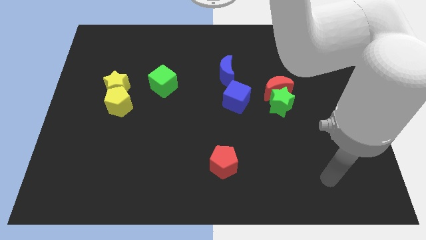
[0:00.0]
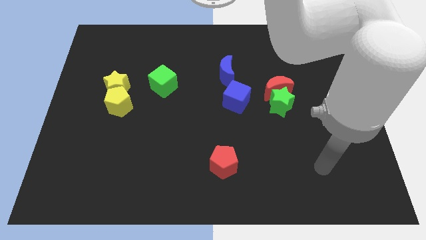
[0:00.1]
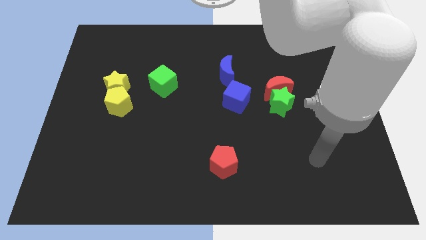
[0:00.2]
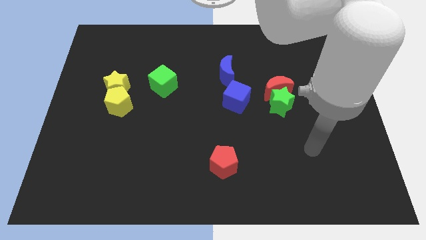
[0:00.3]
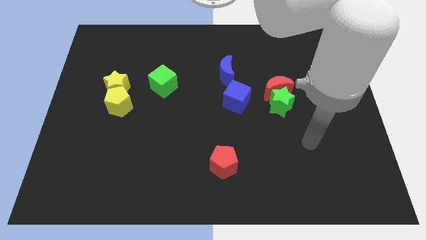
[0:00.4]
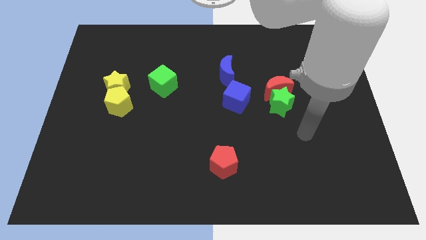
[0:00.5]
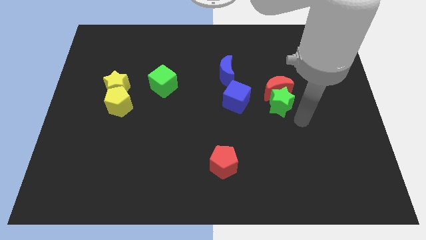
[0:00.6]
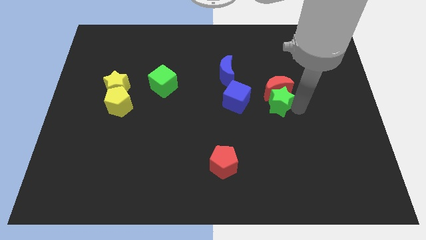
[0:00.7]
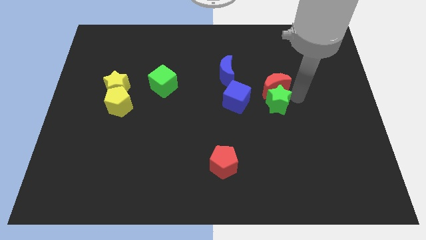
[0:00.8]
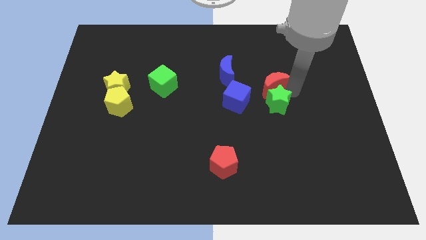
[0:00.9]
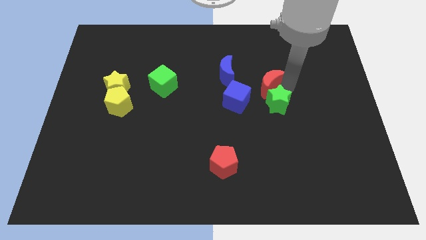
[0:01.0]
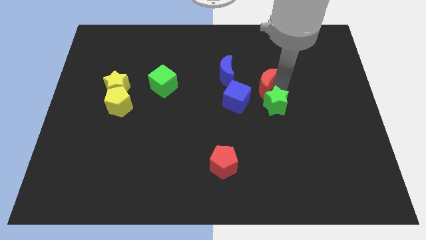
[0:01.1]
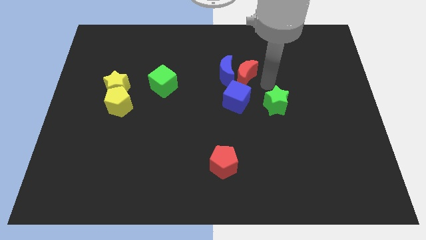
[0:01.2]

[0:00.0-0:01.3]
pull the green star apart from the red moon

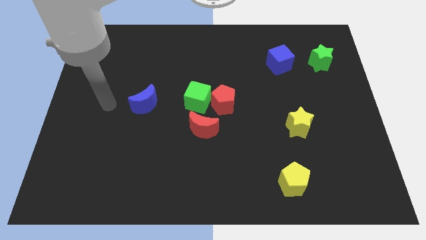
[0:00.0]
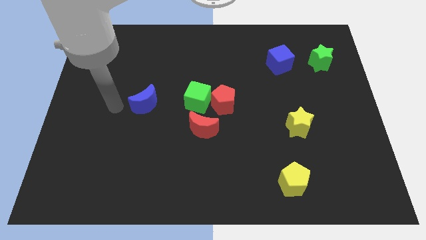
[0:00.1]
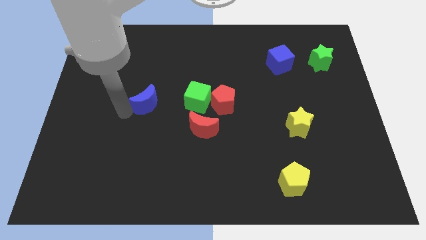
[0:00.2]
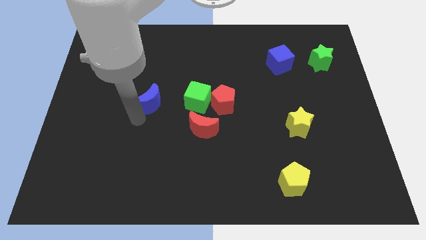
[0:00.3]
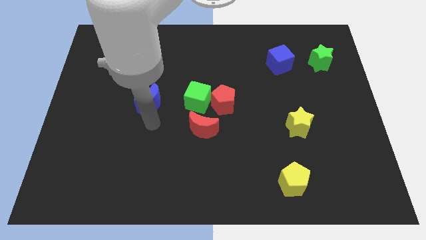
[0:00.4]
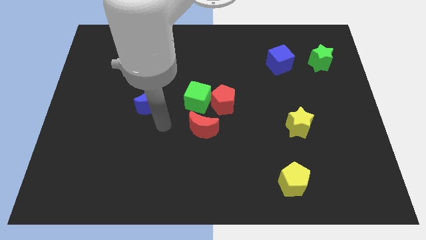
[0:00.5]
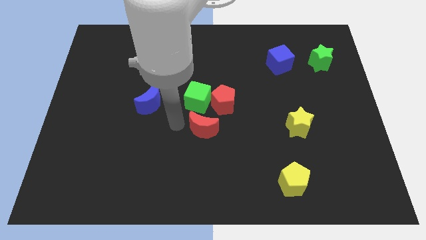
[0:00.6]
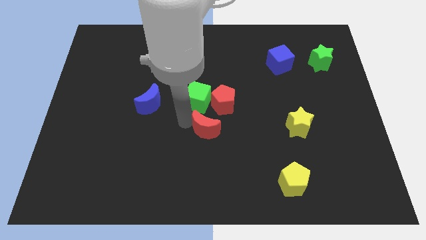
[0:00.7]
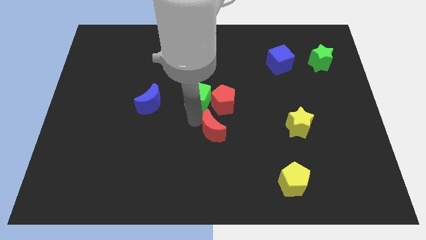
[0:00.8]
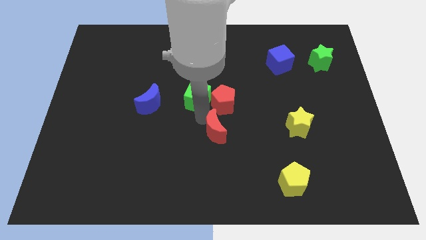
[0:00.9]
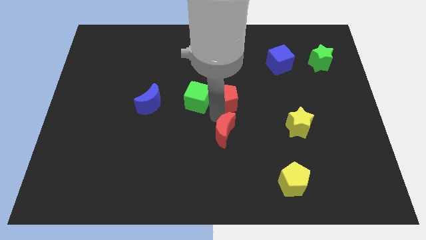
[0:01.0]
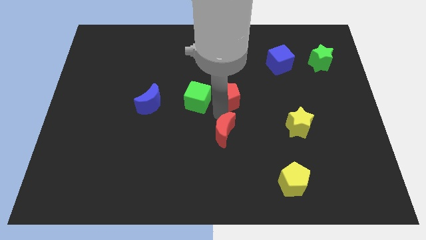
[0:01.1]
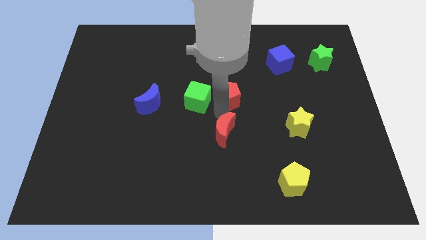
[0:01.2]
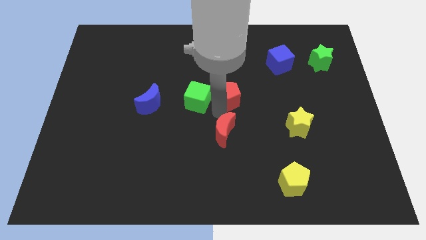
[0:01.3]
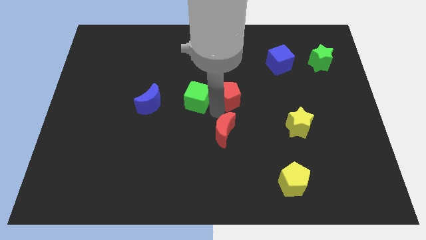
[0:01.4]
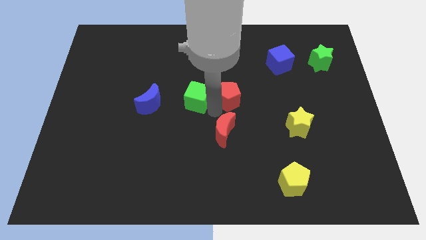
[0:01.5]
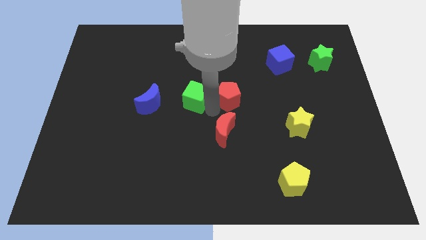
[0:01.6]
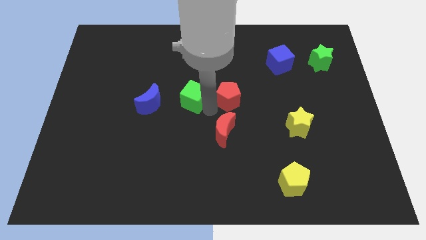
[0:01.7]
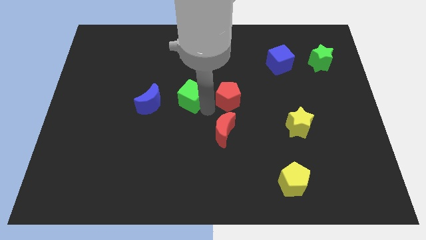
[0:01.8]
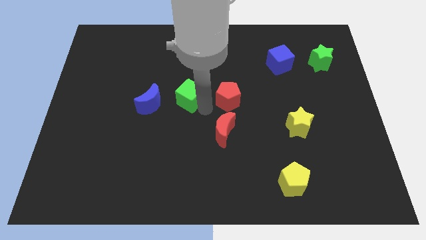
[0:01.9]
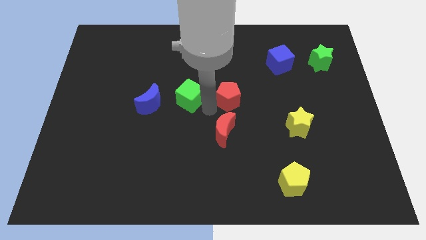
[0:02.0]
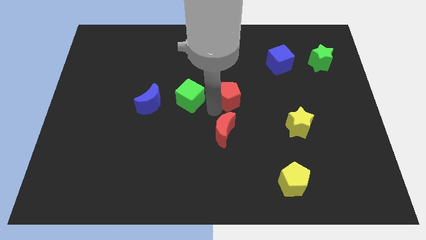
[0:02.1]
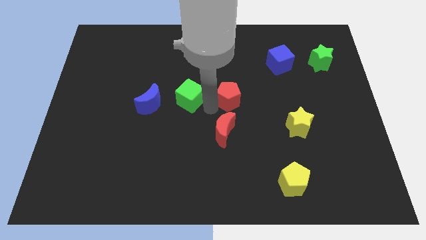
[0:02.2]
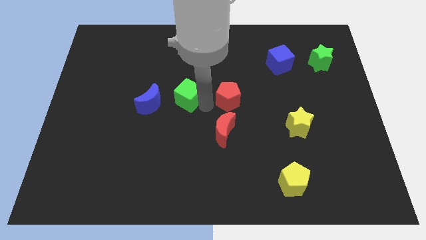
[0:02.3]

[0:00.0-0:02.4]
pull the green cube apart from the red pentagon and red moon

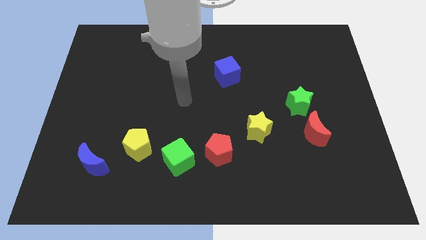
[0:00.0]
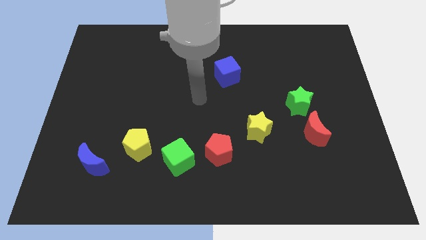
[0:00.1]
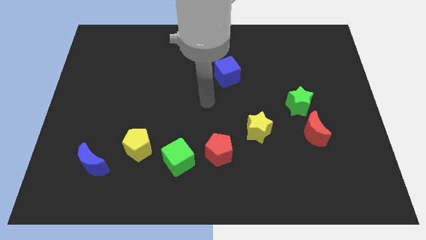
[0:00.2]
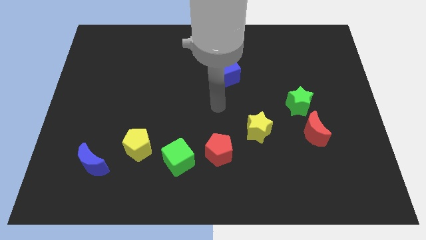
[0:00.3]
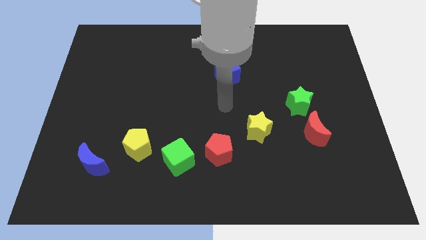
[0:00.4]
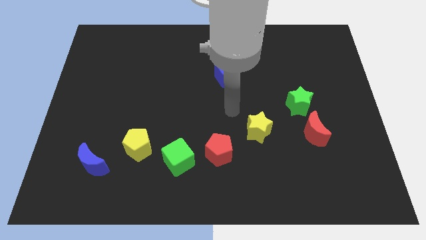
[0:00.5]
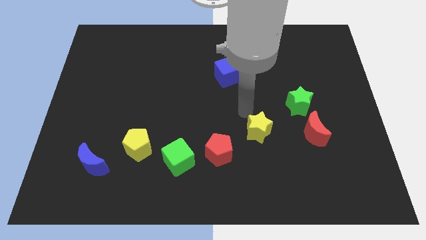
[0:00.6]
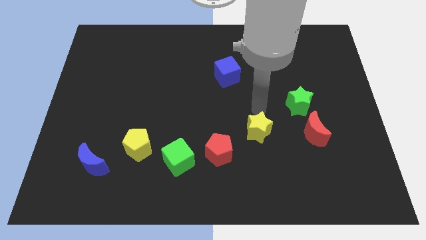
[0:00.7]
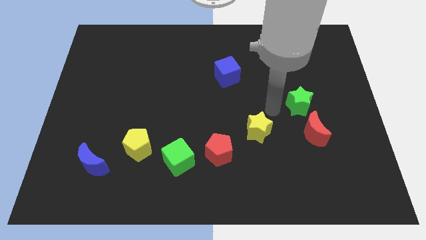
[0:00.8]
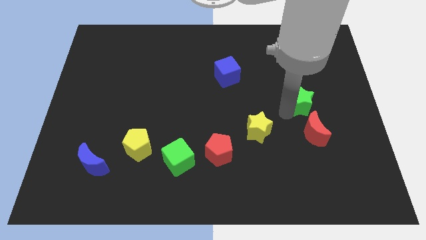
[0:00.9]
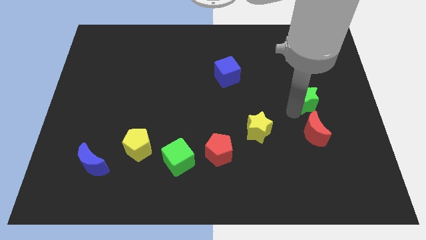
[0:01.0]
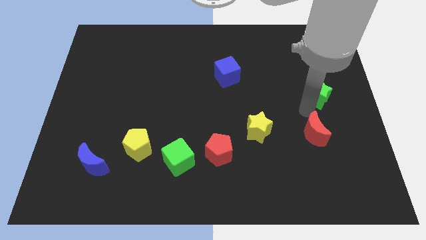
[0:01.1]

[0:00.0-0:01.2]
separate the red moon from the green star

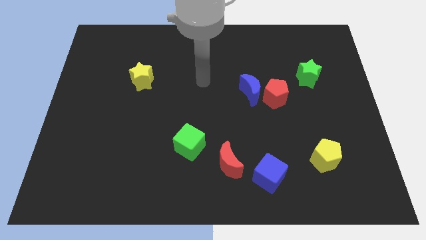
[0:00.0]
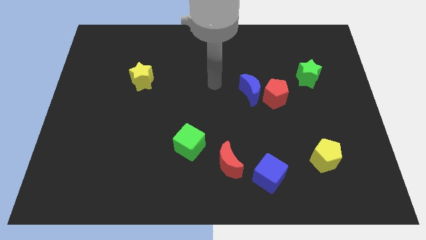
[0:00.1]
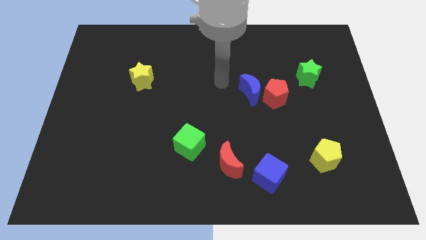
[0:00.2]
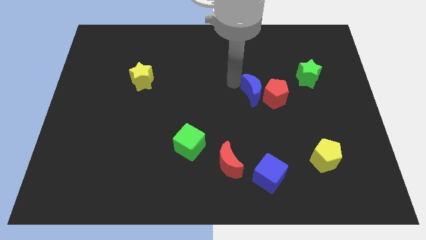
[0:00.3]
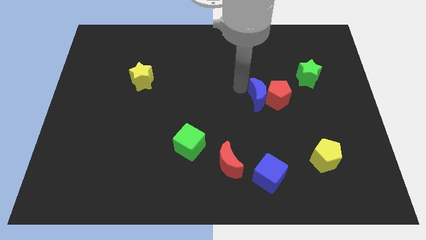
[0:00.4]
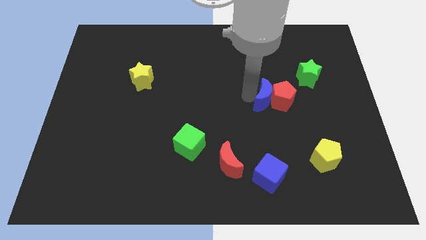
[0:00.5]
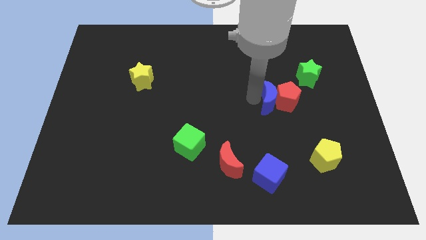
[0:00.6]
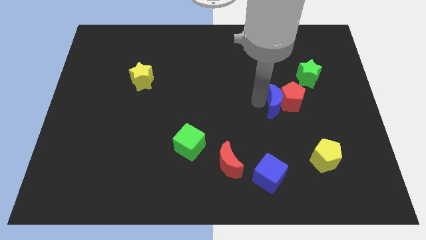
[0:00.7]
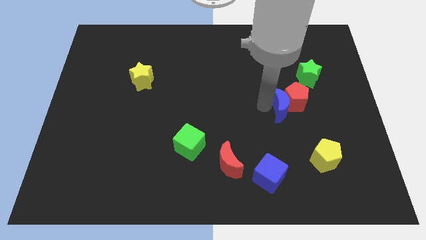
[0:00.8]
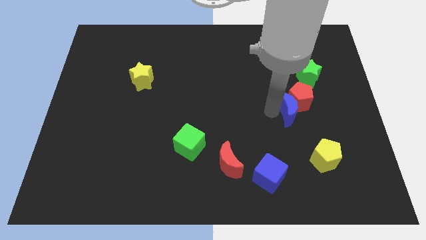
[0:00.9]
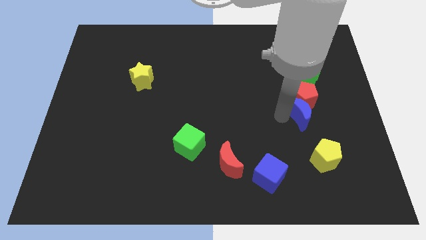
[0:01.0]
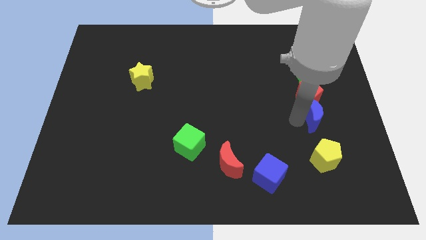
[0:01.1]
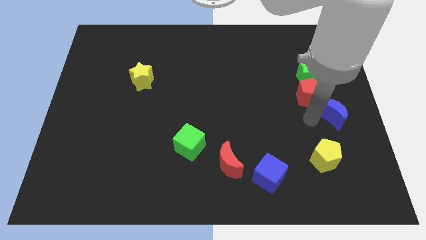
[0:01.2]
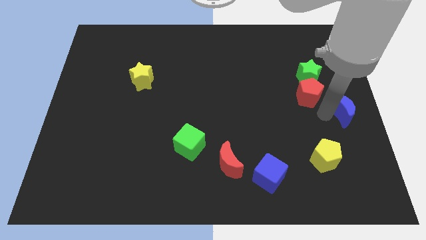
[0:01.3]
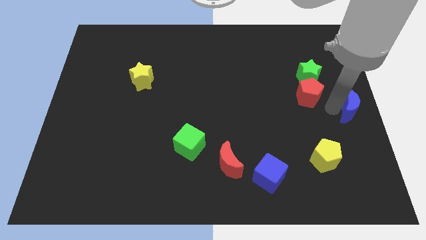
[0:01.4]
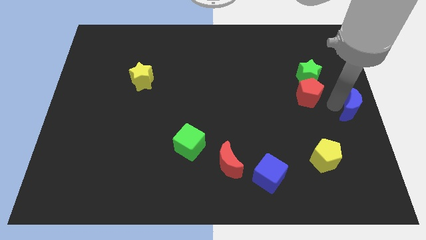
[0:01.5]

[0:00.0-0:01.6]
separate the red pentagon from the blue moon

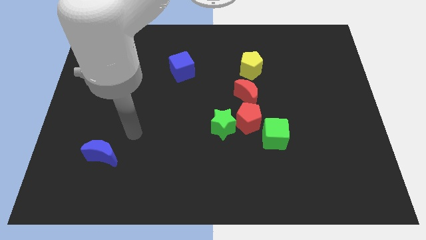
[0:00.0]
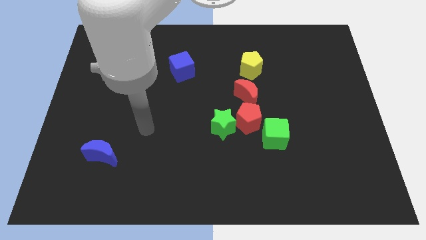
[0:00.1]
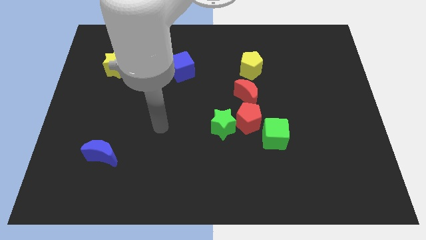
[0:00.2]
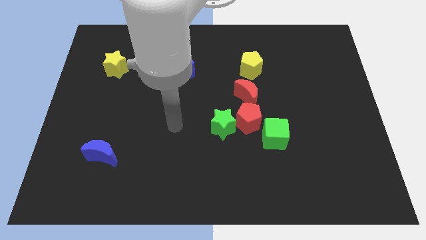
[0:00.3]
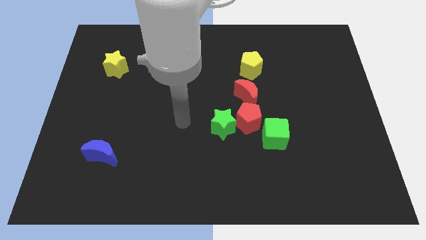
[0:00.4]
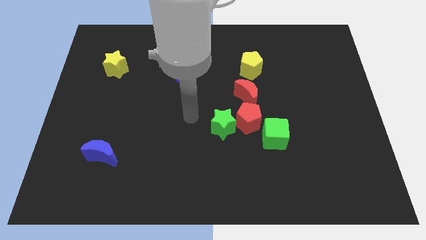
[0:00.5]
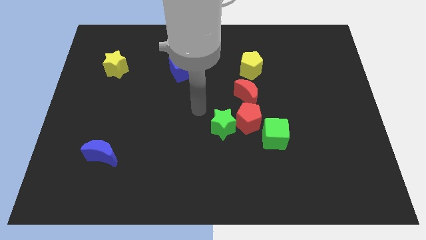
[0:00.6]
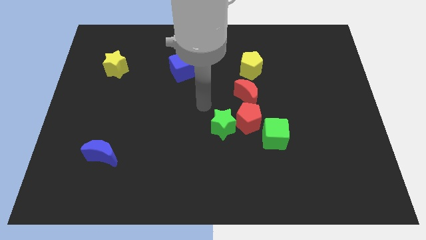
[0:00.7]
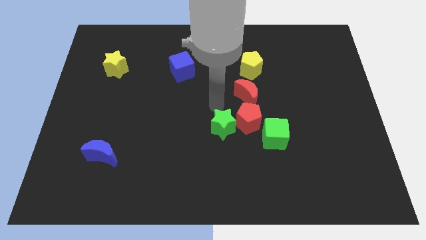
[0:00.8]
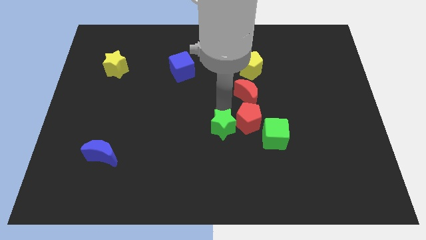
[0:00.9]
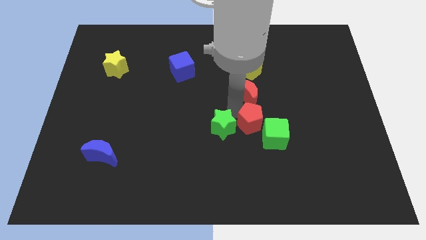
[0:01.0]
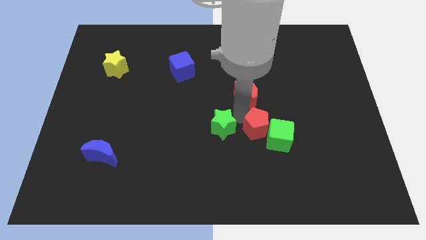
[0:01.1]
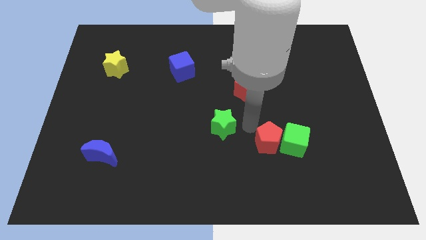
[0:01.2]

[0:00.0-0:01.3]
move the green star away from the red pentagon

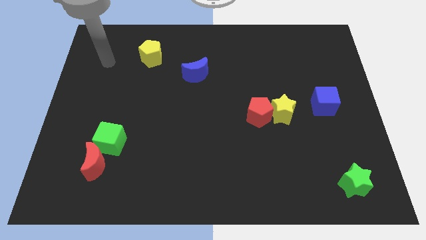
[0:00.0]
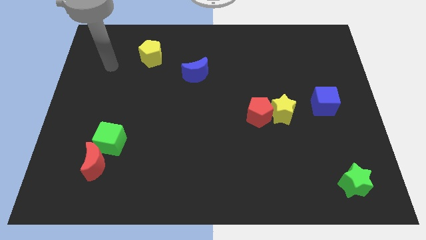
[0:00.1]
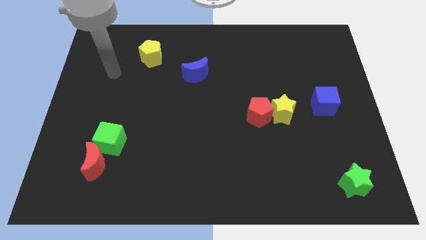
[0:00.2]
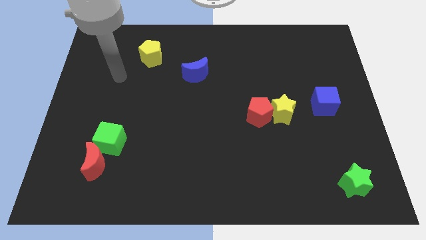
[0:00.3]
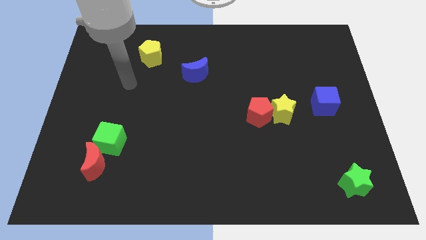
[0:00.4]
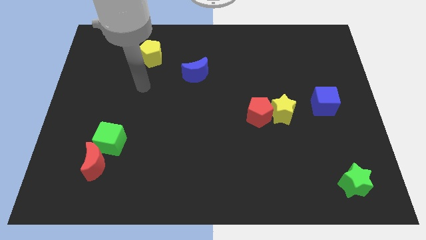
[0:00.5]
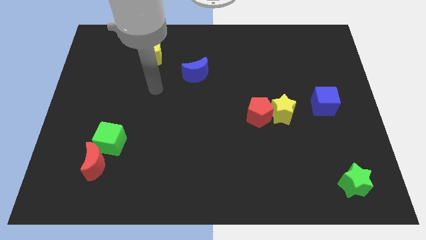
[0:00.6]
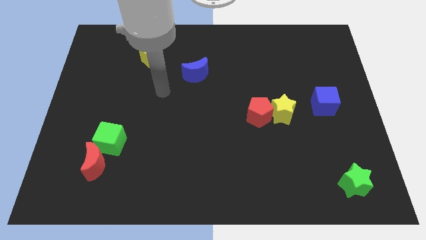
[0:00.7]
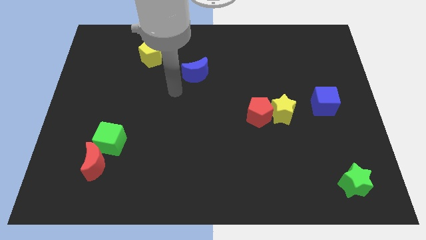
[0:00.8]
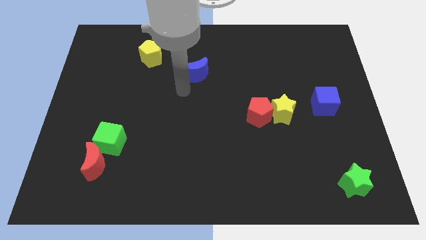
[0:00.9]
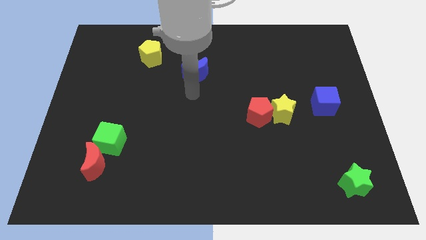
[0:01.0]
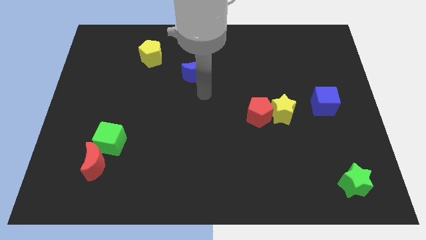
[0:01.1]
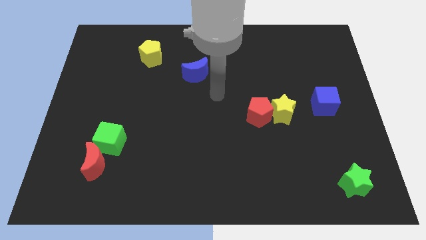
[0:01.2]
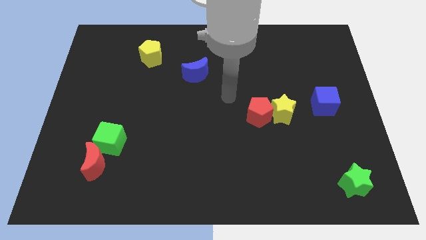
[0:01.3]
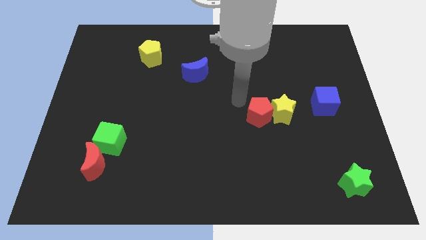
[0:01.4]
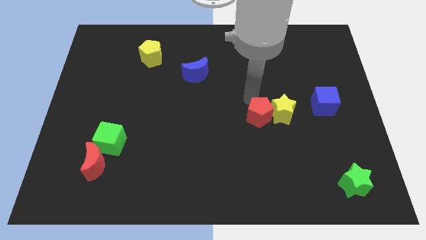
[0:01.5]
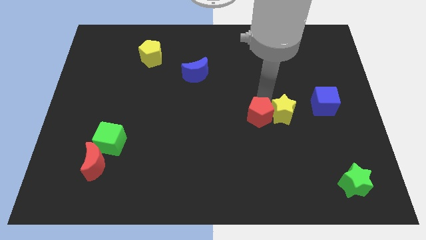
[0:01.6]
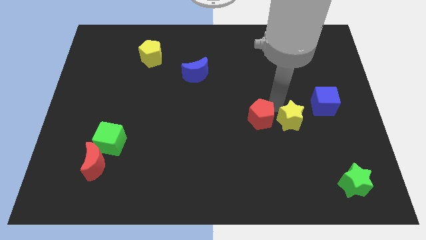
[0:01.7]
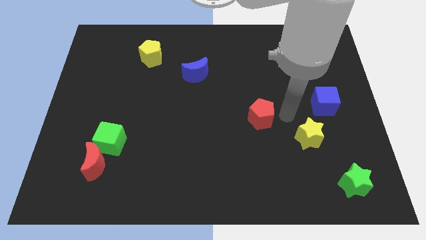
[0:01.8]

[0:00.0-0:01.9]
separate the red pentagon from the yellow star
